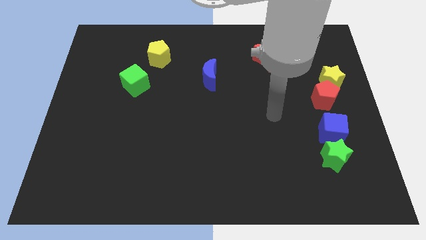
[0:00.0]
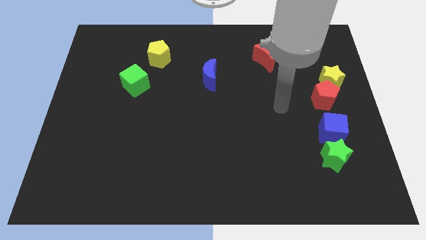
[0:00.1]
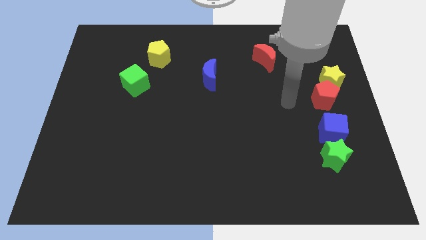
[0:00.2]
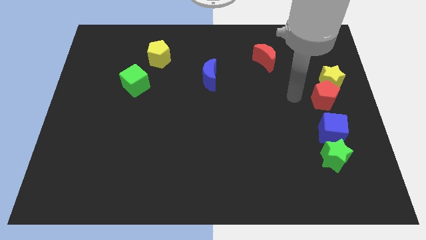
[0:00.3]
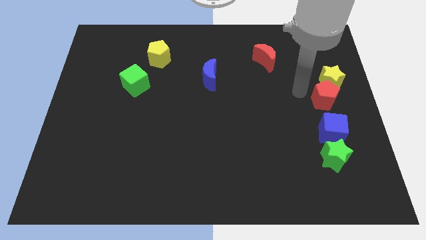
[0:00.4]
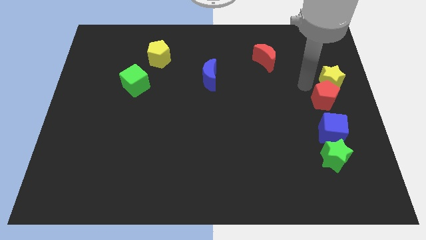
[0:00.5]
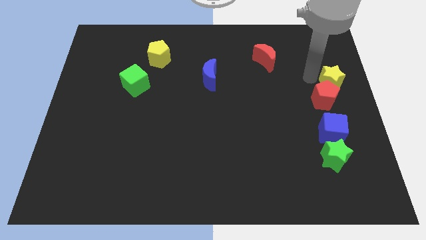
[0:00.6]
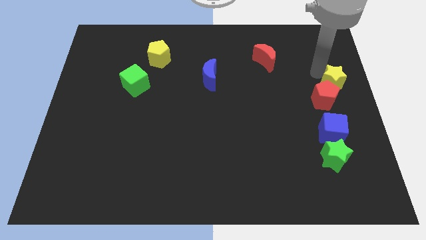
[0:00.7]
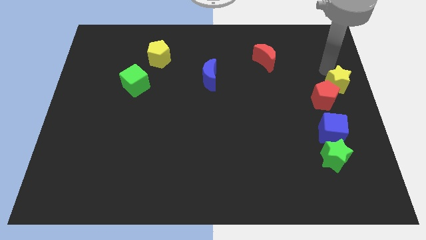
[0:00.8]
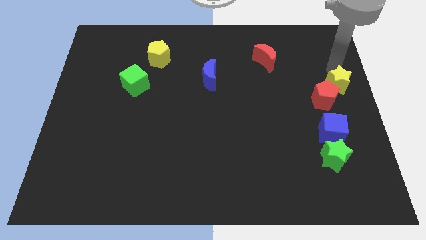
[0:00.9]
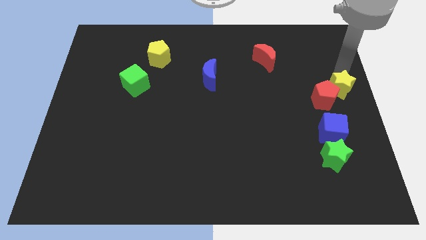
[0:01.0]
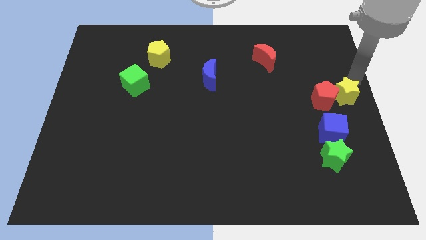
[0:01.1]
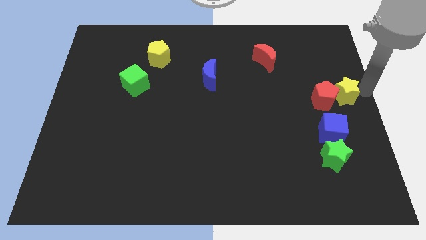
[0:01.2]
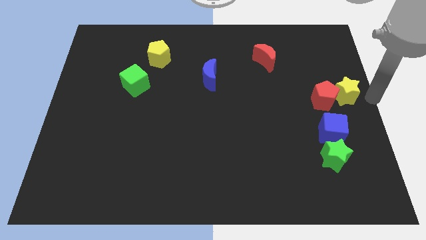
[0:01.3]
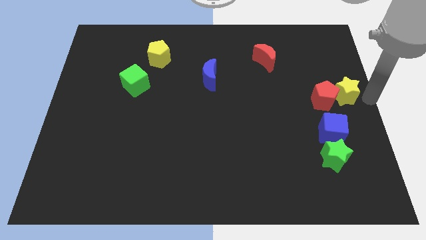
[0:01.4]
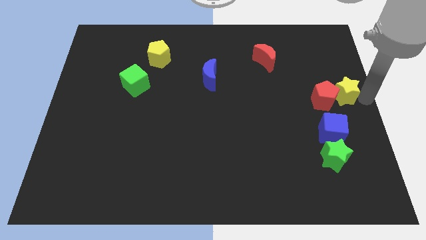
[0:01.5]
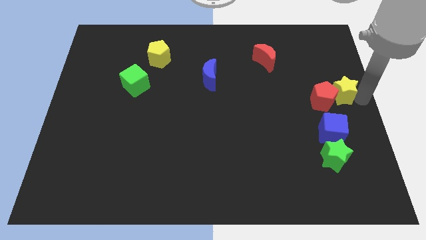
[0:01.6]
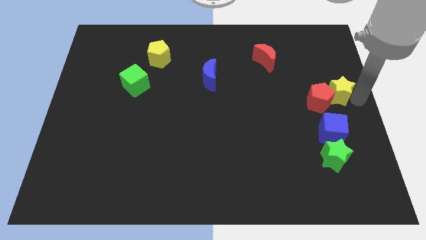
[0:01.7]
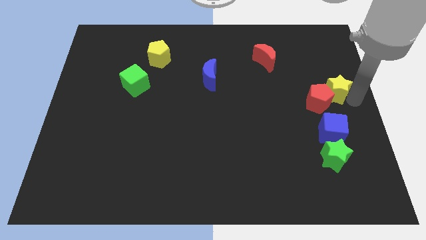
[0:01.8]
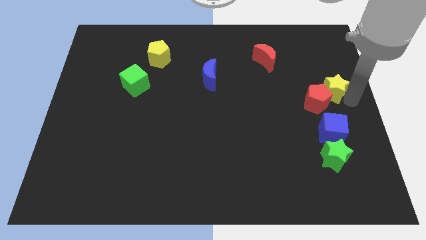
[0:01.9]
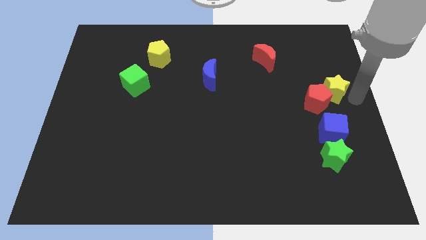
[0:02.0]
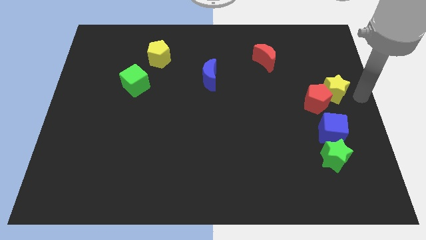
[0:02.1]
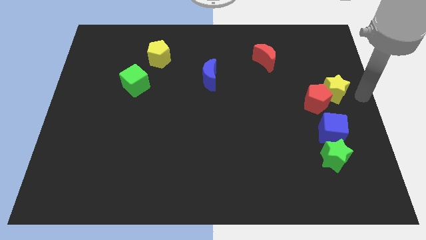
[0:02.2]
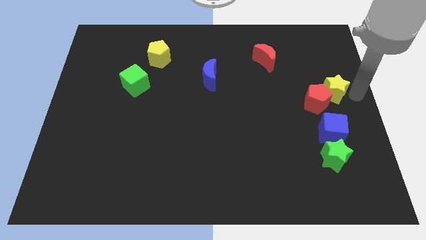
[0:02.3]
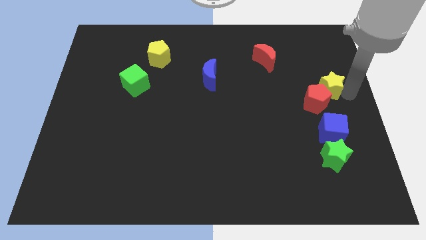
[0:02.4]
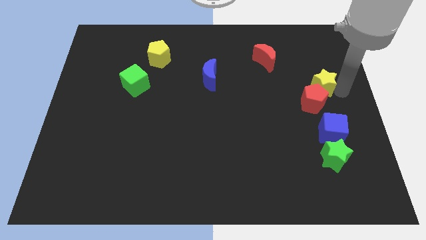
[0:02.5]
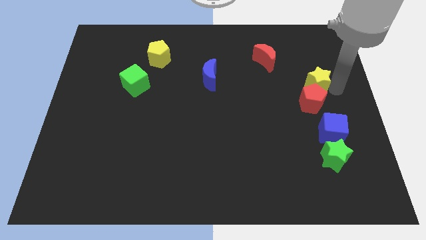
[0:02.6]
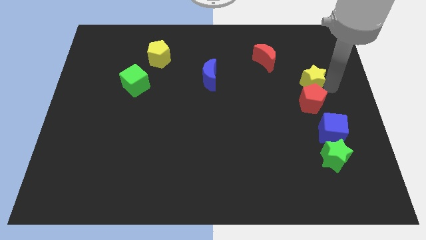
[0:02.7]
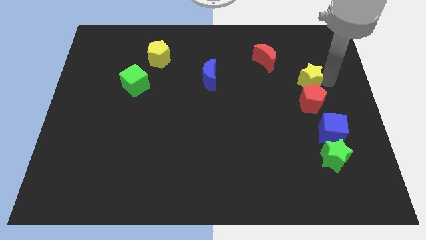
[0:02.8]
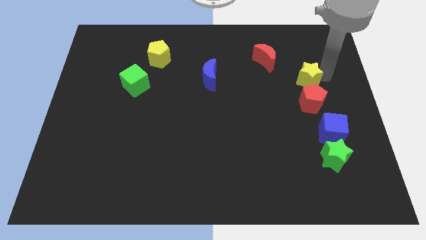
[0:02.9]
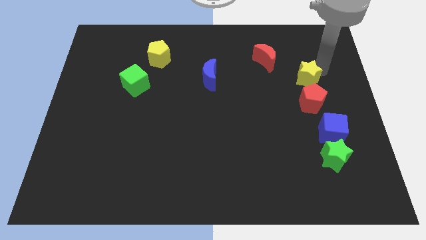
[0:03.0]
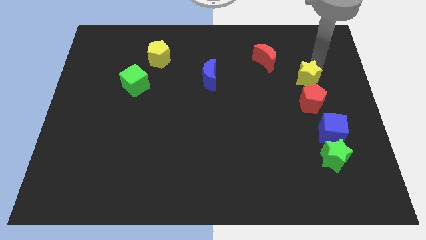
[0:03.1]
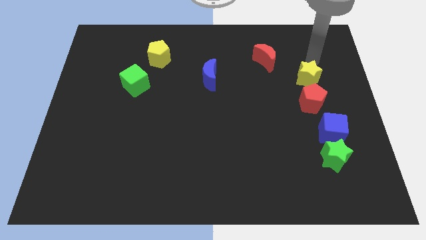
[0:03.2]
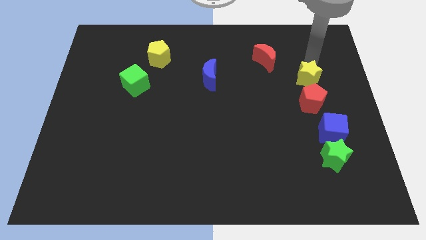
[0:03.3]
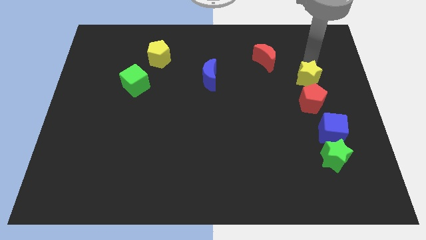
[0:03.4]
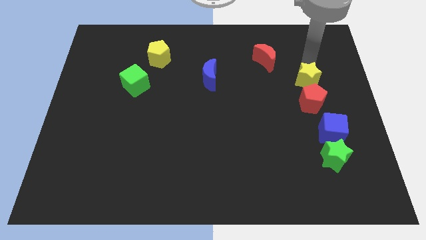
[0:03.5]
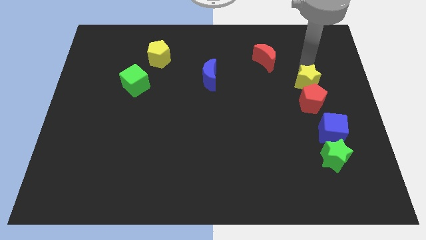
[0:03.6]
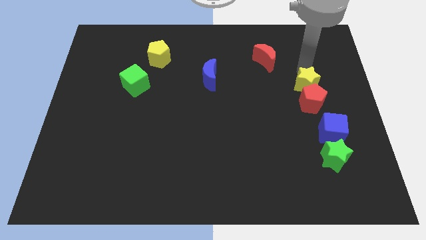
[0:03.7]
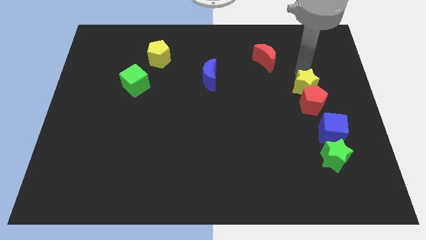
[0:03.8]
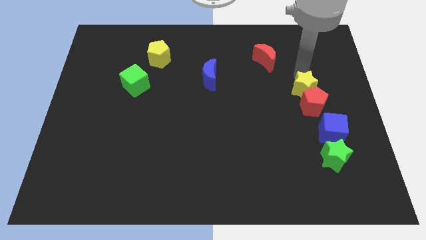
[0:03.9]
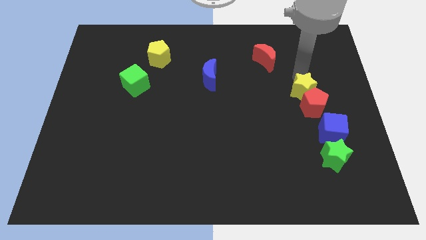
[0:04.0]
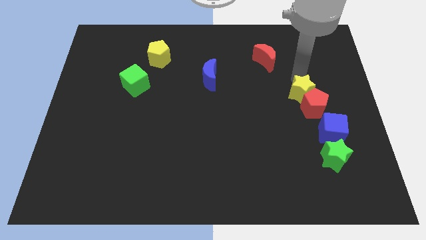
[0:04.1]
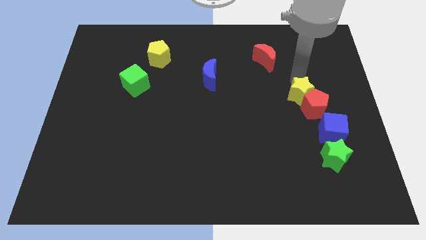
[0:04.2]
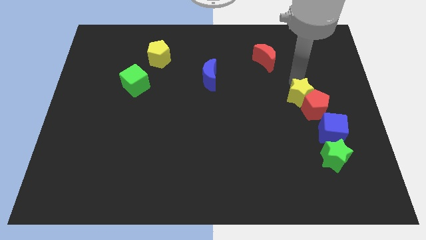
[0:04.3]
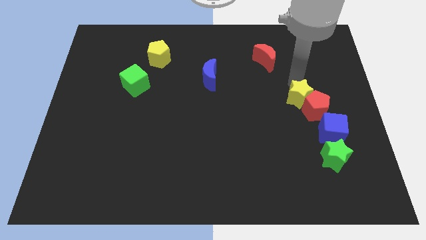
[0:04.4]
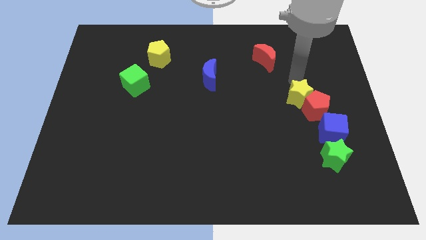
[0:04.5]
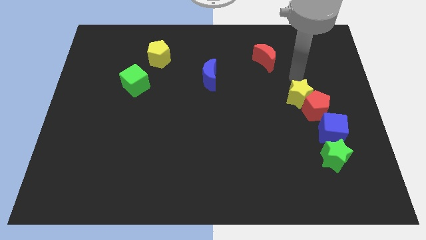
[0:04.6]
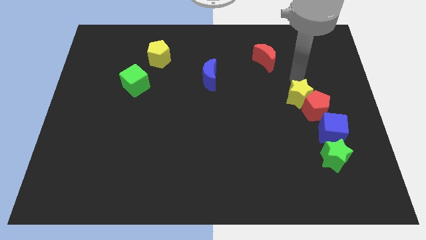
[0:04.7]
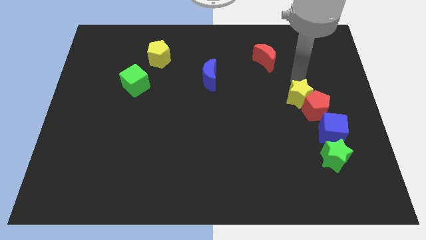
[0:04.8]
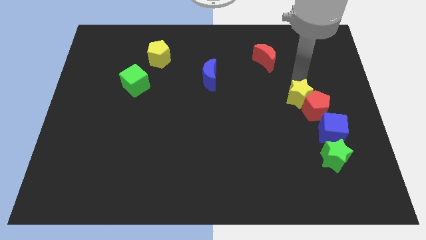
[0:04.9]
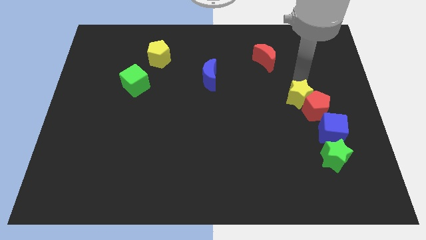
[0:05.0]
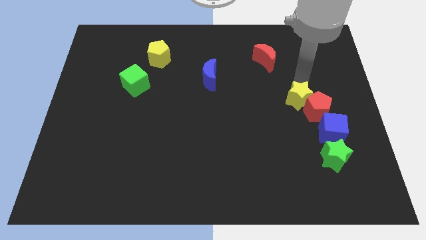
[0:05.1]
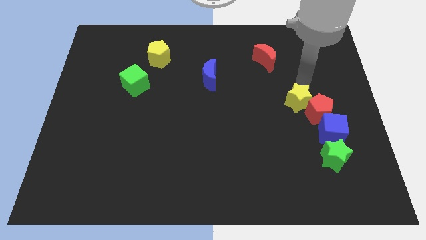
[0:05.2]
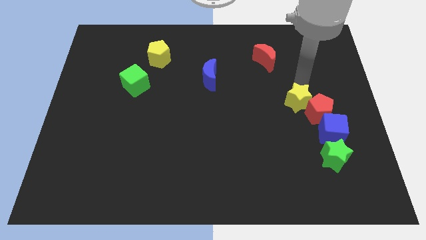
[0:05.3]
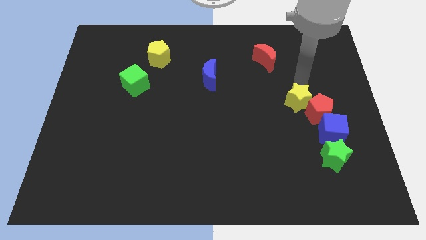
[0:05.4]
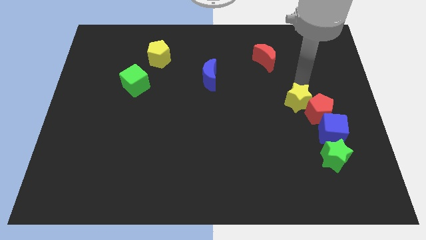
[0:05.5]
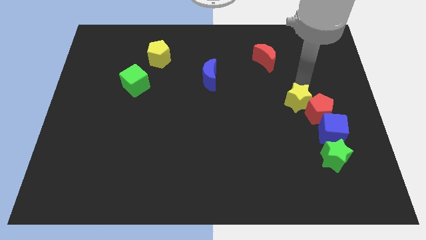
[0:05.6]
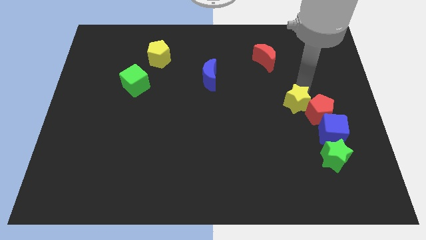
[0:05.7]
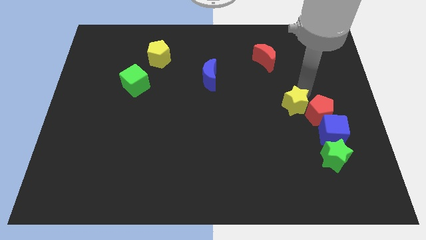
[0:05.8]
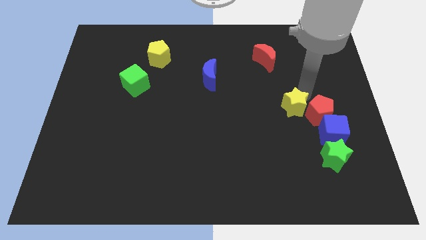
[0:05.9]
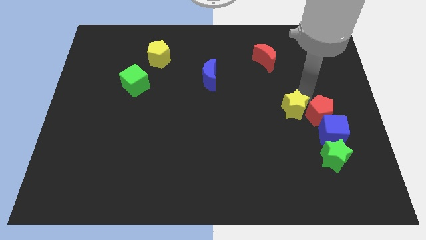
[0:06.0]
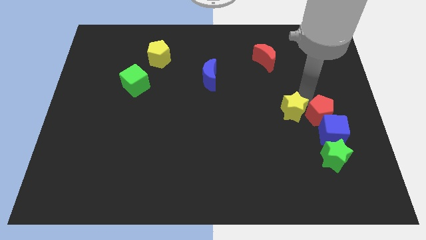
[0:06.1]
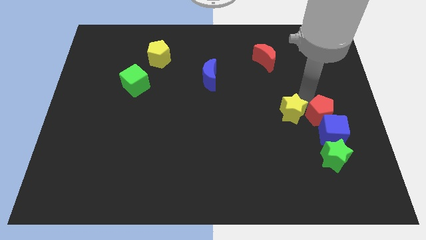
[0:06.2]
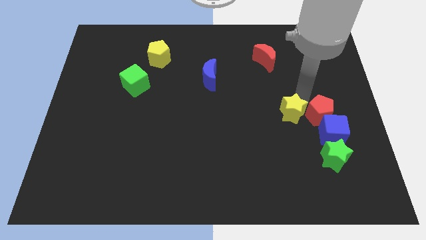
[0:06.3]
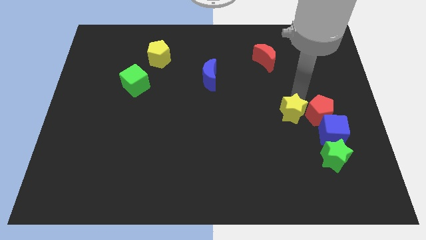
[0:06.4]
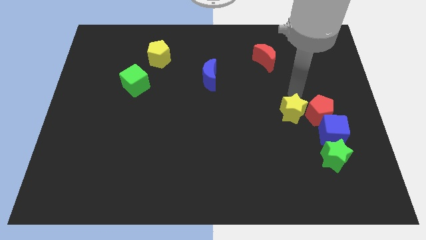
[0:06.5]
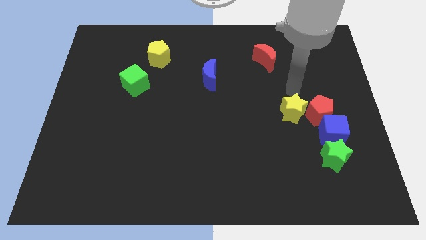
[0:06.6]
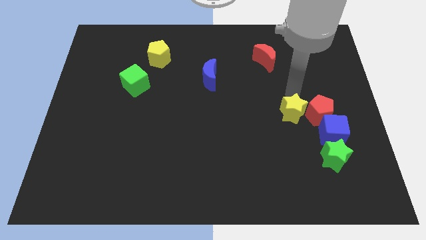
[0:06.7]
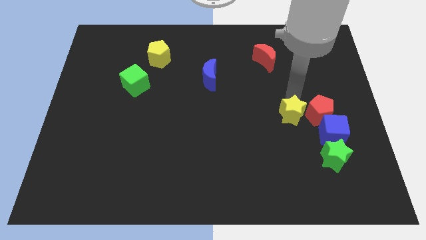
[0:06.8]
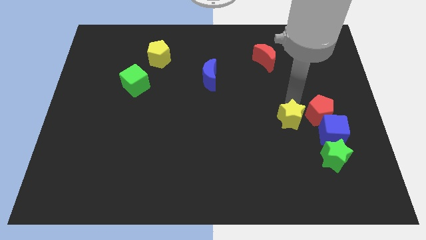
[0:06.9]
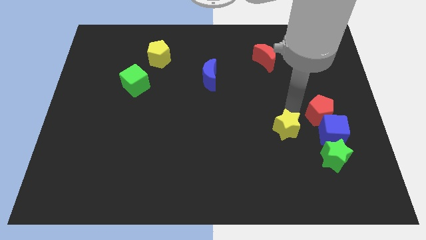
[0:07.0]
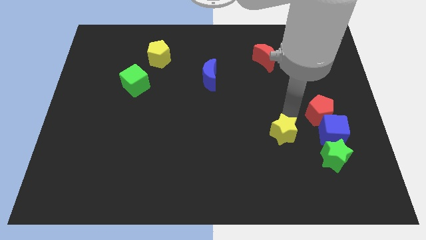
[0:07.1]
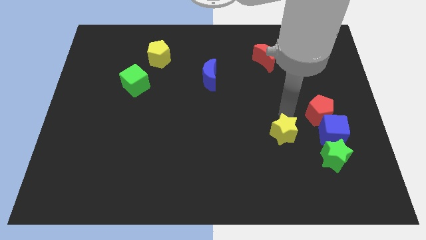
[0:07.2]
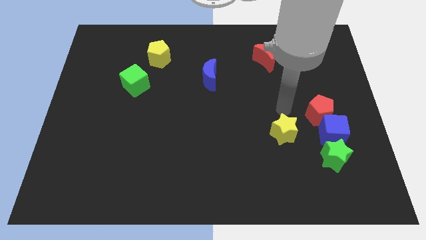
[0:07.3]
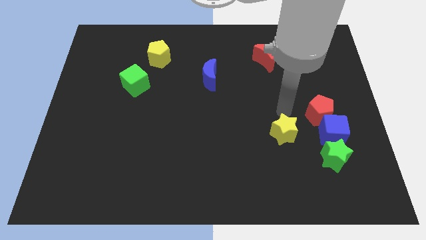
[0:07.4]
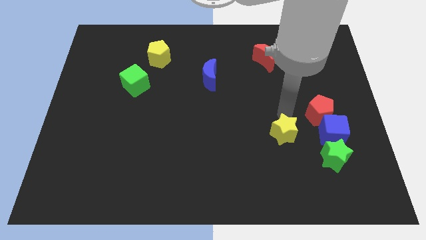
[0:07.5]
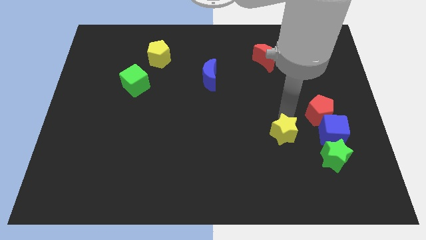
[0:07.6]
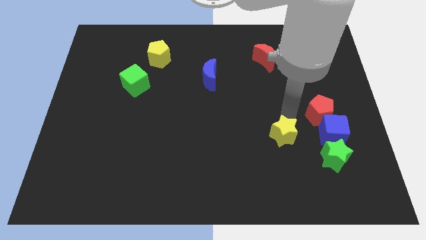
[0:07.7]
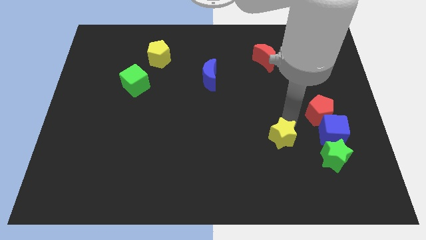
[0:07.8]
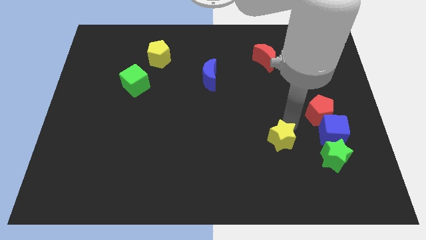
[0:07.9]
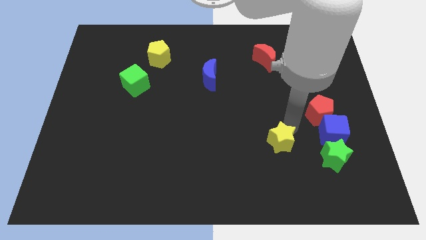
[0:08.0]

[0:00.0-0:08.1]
move the yellow star to the left side of the green star
